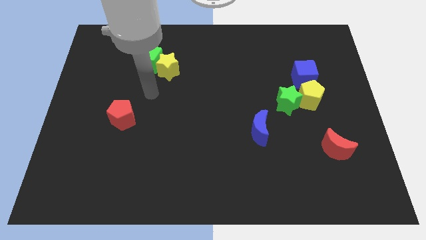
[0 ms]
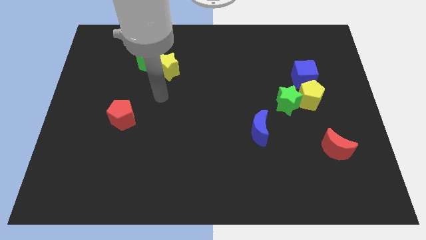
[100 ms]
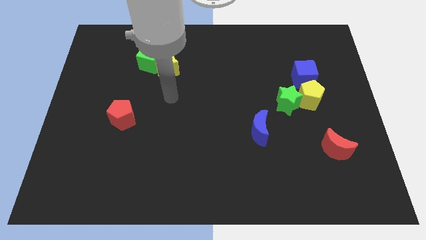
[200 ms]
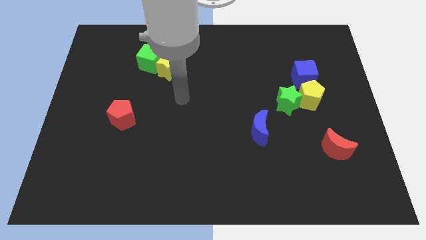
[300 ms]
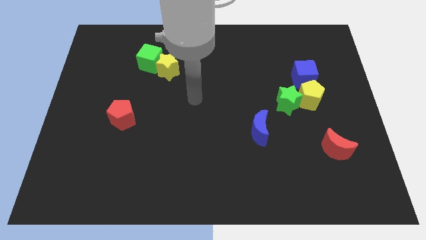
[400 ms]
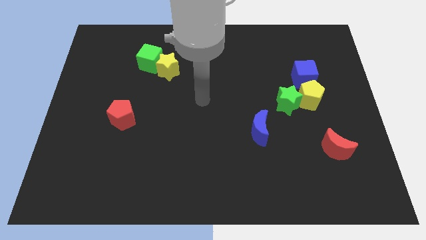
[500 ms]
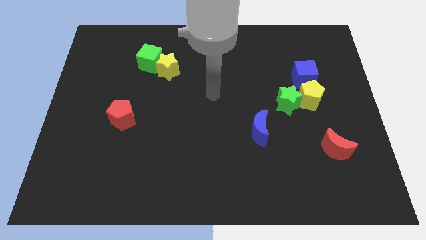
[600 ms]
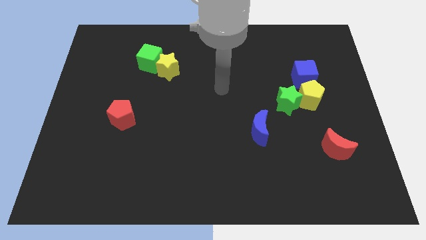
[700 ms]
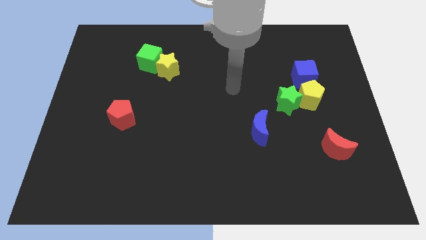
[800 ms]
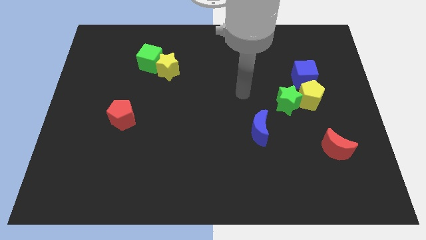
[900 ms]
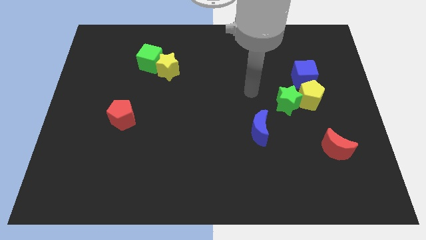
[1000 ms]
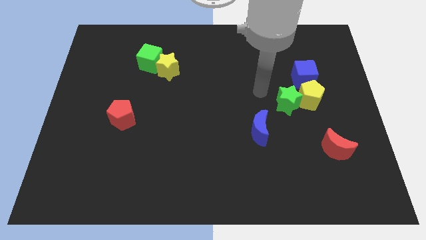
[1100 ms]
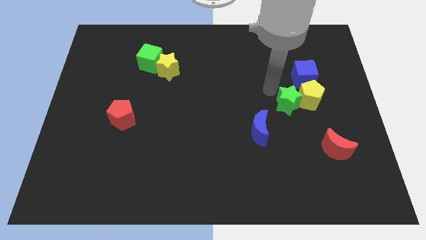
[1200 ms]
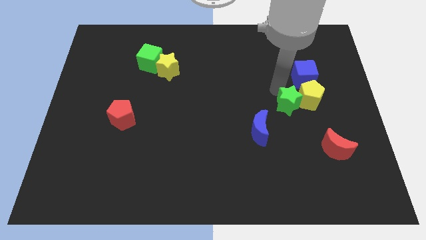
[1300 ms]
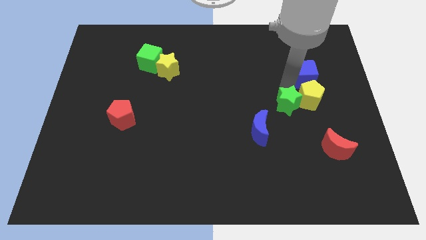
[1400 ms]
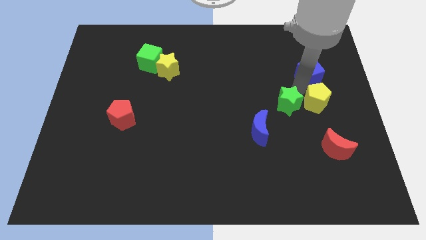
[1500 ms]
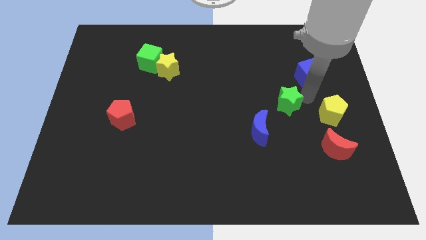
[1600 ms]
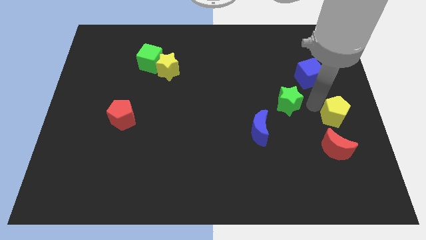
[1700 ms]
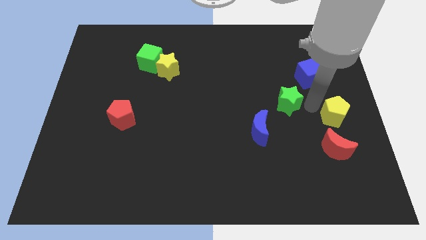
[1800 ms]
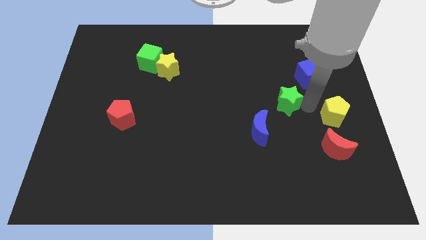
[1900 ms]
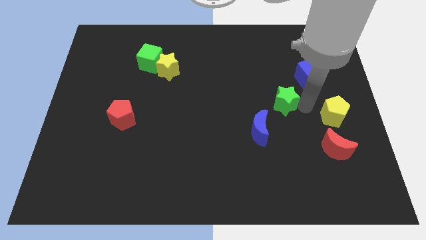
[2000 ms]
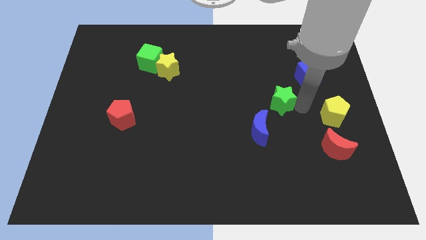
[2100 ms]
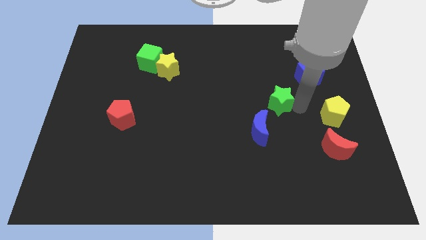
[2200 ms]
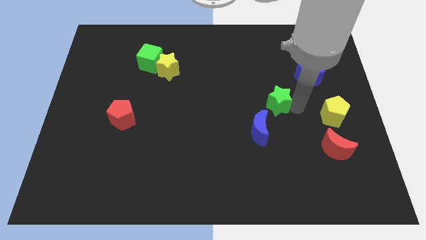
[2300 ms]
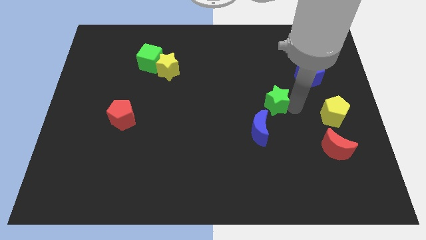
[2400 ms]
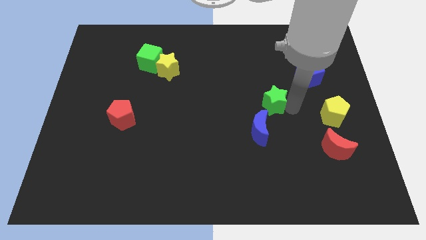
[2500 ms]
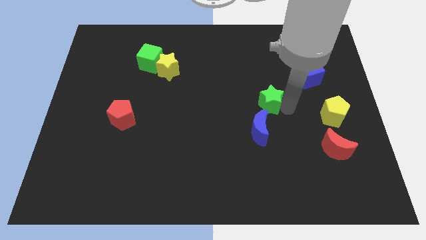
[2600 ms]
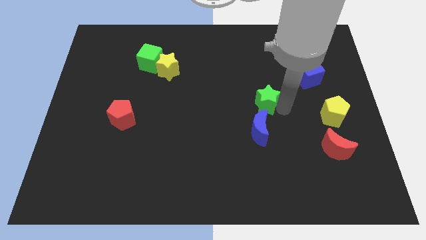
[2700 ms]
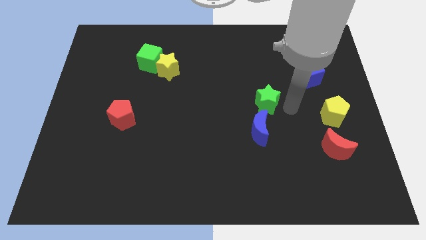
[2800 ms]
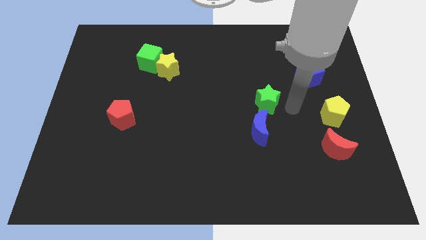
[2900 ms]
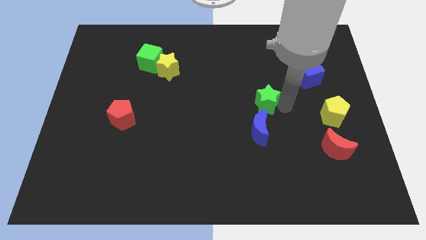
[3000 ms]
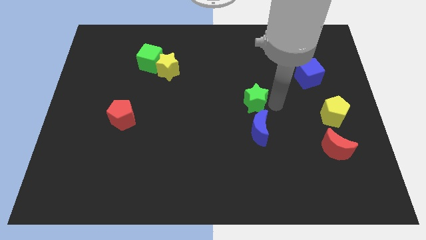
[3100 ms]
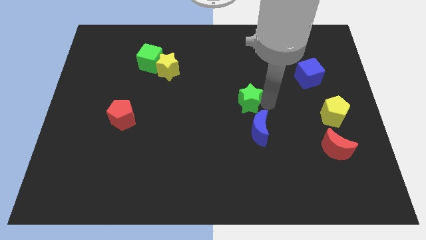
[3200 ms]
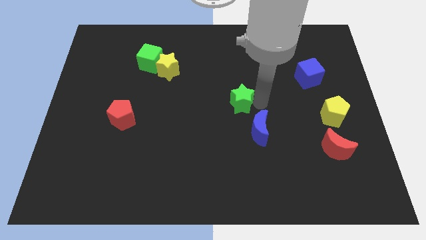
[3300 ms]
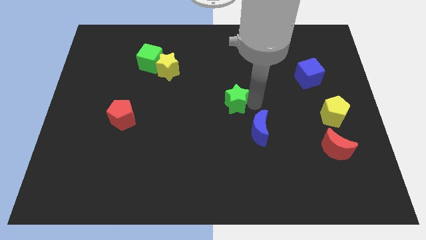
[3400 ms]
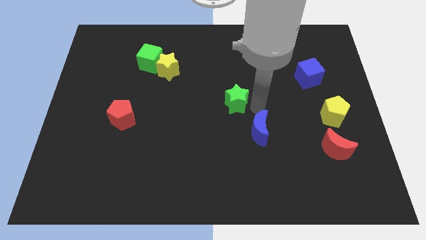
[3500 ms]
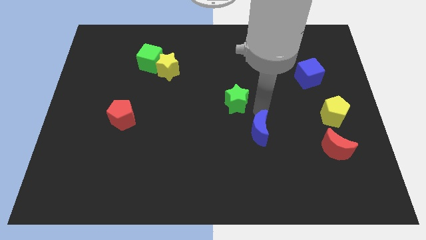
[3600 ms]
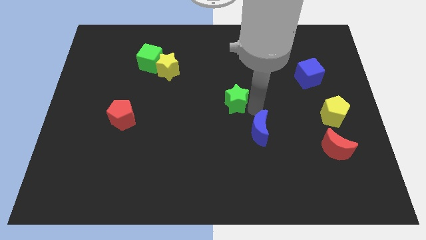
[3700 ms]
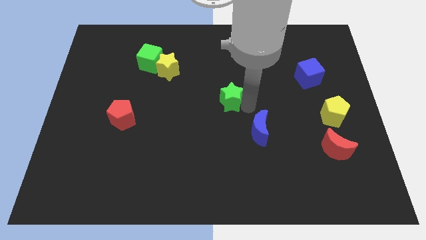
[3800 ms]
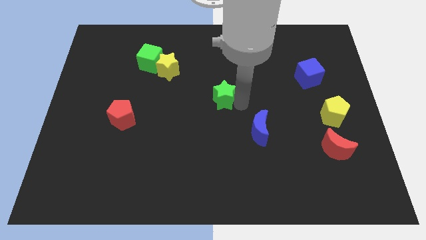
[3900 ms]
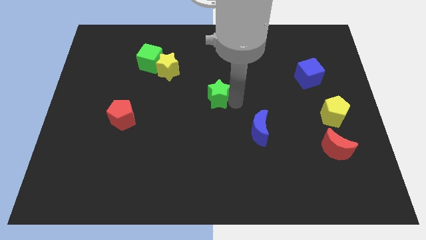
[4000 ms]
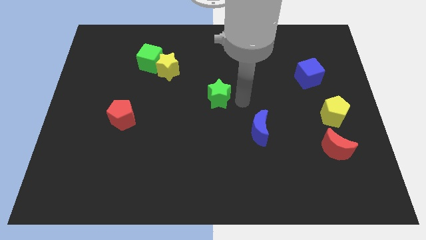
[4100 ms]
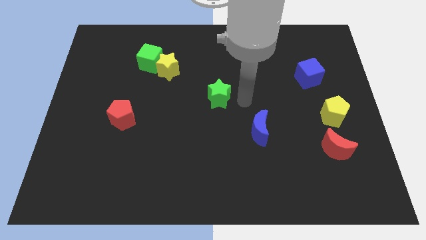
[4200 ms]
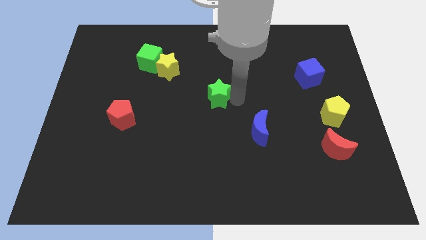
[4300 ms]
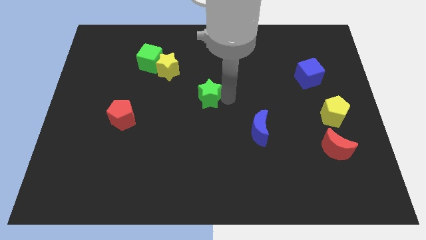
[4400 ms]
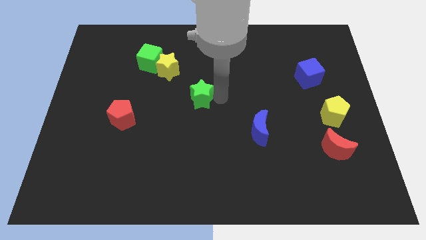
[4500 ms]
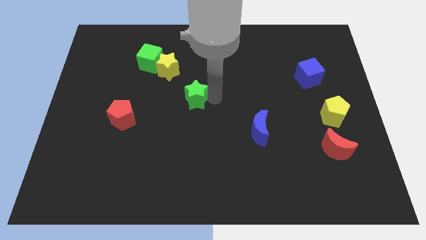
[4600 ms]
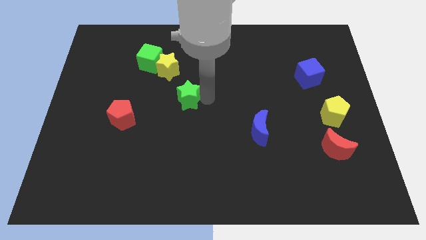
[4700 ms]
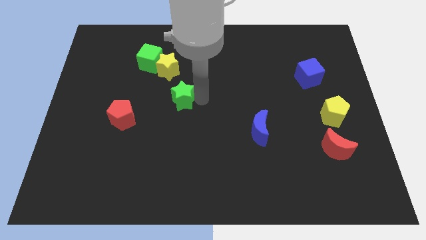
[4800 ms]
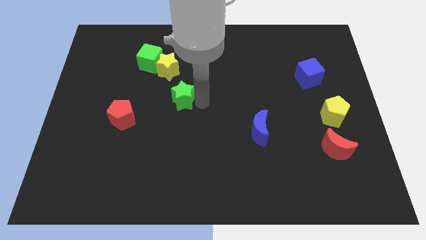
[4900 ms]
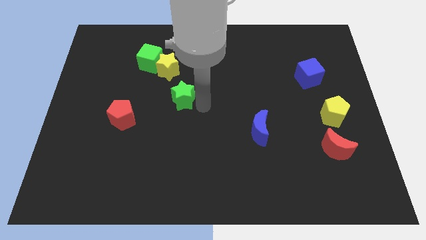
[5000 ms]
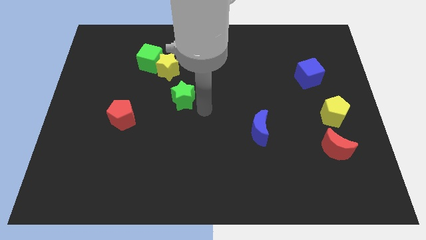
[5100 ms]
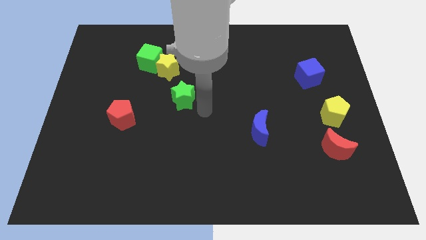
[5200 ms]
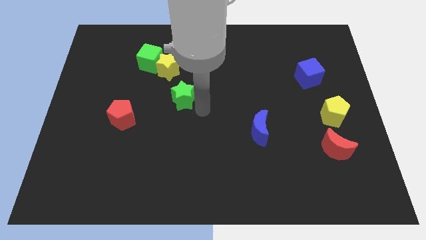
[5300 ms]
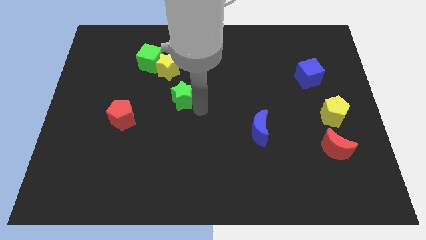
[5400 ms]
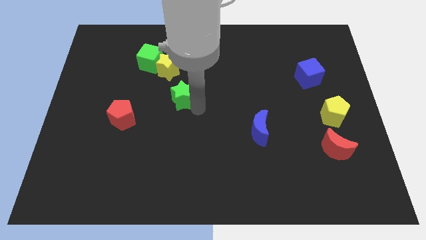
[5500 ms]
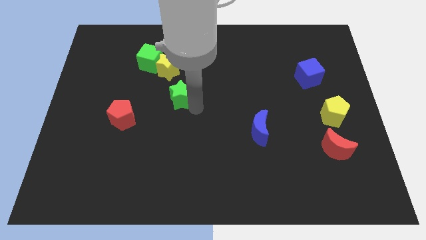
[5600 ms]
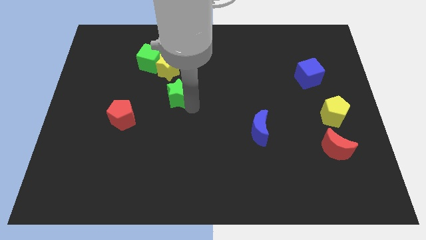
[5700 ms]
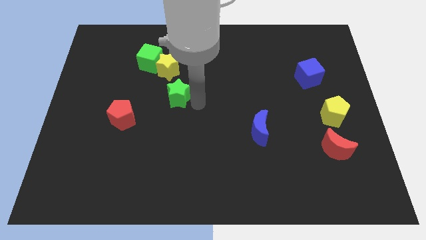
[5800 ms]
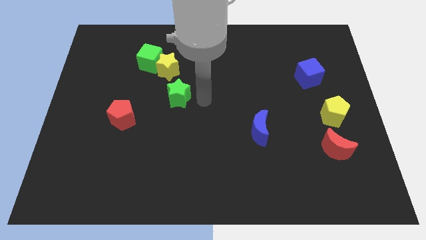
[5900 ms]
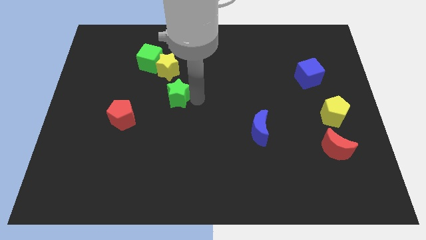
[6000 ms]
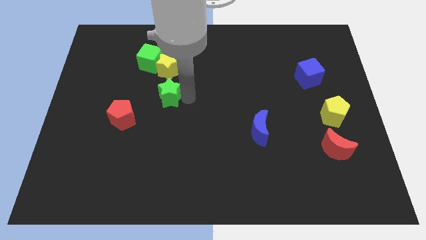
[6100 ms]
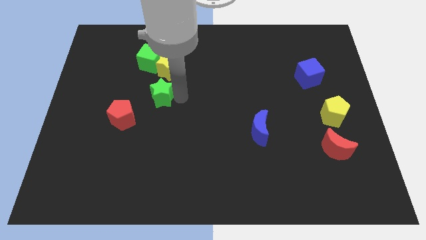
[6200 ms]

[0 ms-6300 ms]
slide the green star to the bottom side of the green cube

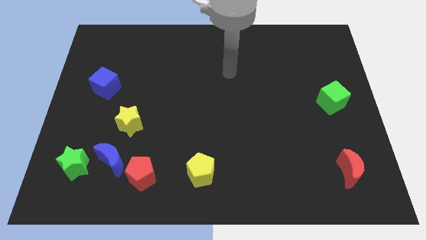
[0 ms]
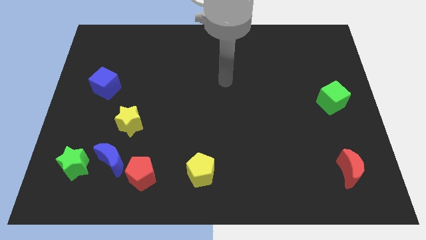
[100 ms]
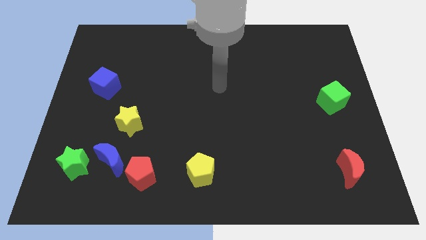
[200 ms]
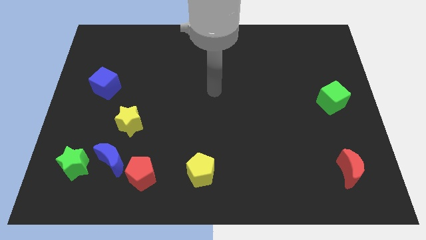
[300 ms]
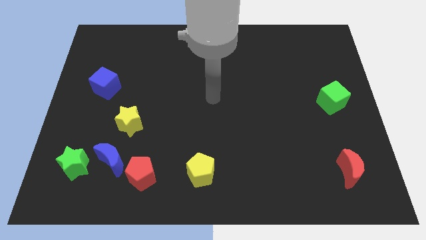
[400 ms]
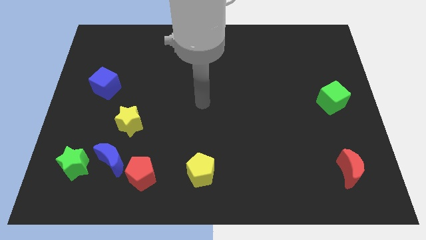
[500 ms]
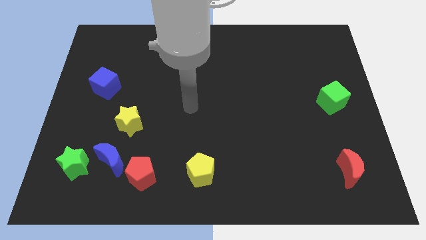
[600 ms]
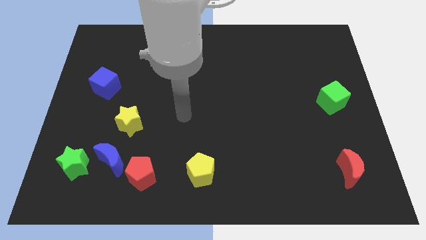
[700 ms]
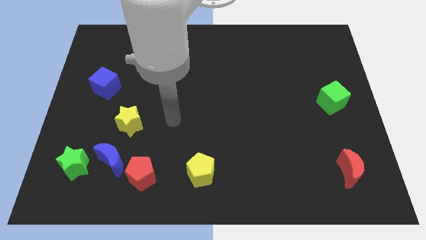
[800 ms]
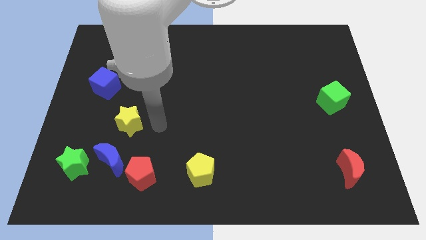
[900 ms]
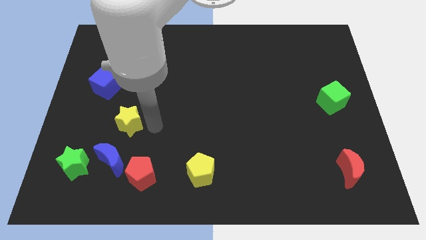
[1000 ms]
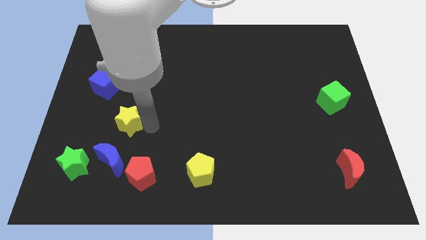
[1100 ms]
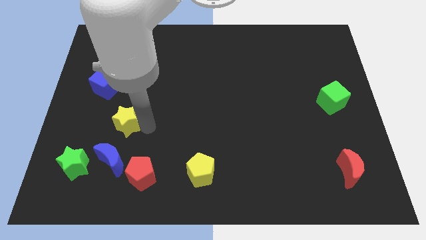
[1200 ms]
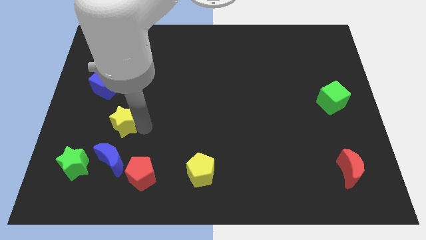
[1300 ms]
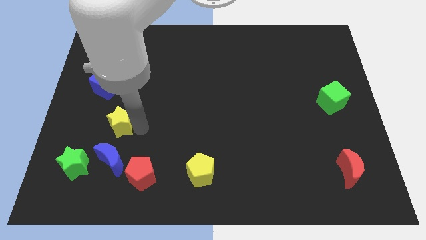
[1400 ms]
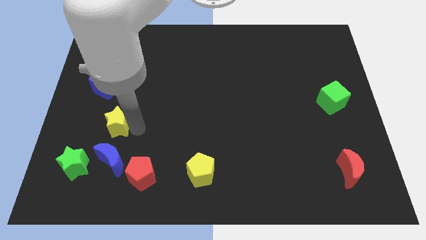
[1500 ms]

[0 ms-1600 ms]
slide the yellow star to the bottom side of the blue cube
